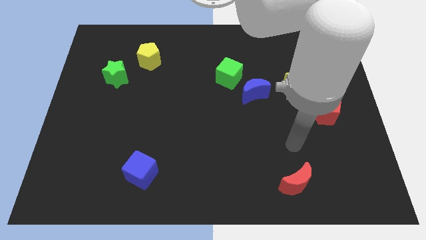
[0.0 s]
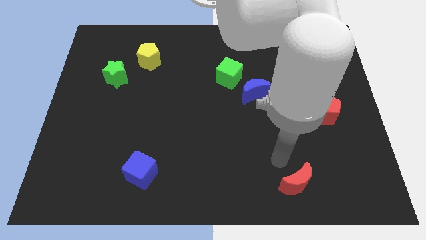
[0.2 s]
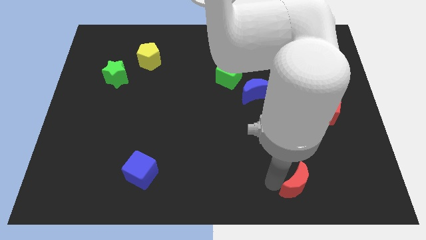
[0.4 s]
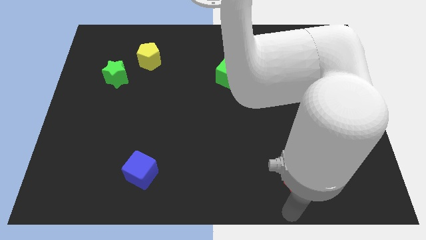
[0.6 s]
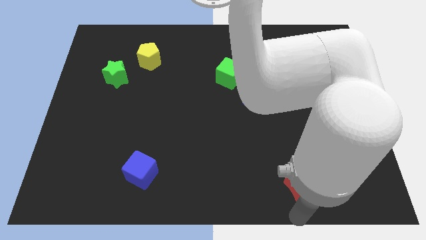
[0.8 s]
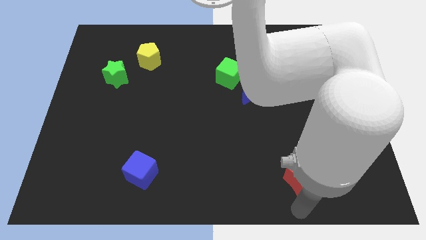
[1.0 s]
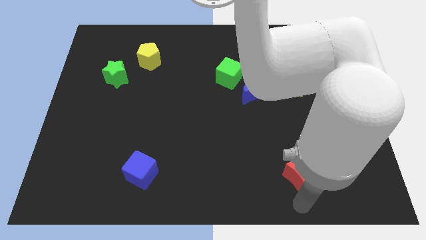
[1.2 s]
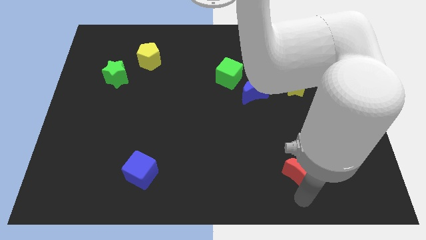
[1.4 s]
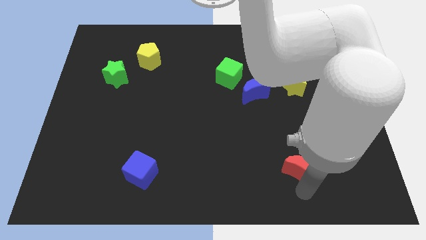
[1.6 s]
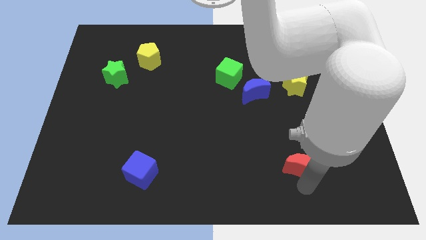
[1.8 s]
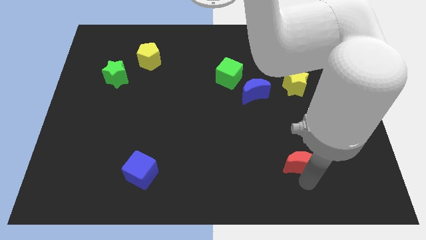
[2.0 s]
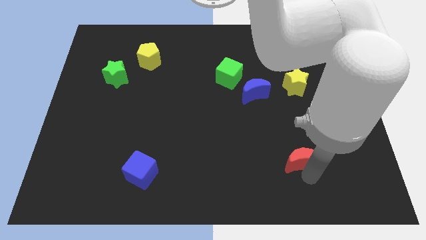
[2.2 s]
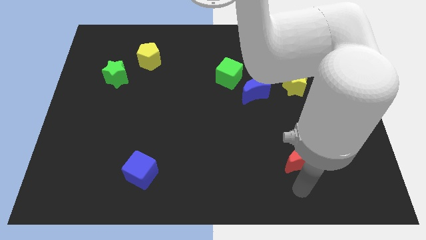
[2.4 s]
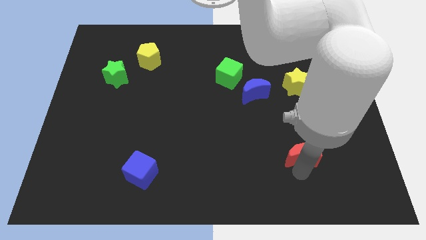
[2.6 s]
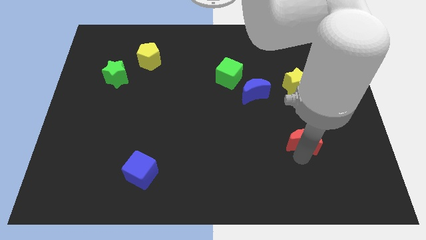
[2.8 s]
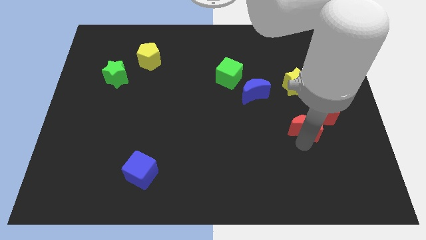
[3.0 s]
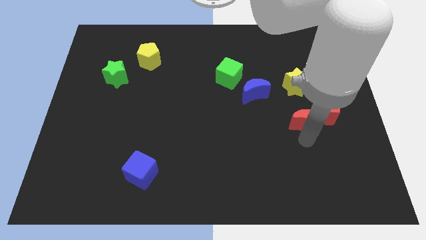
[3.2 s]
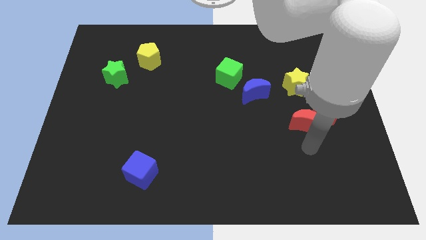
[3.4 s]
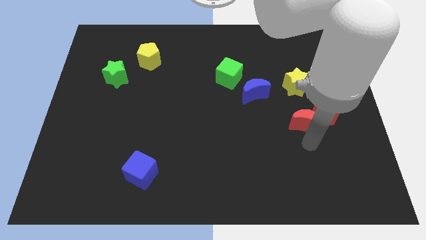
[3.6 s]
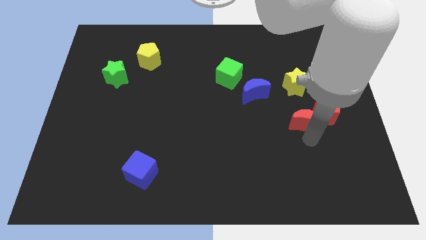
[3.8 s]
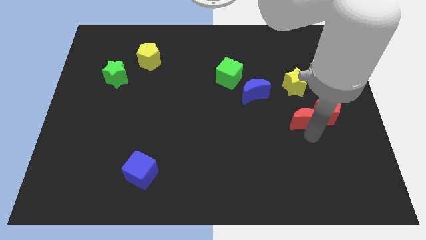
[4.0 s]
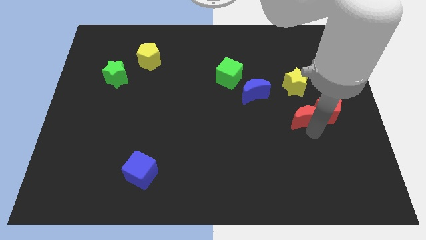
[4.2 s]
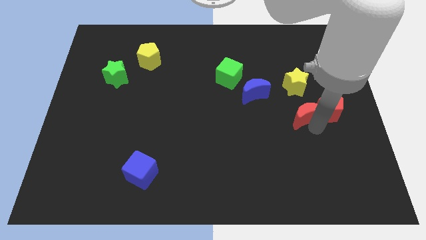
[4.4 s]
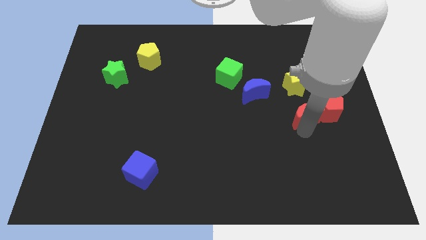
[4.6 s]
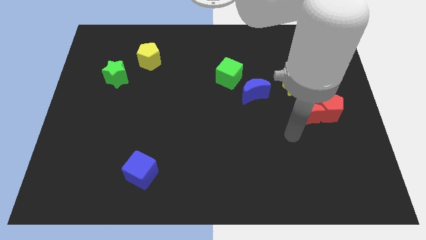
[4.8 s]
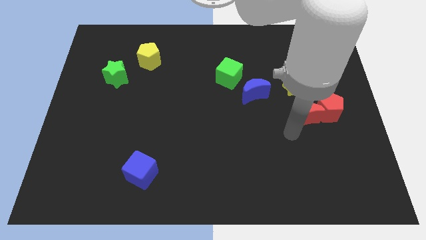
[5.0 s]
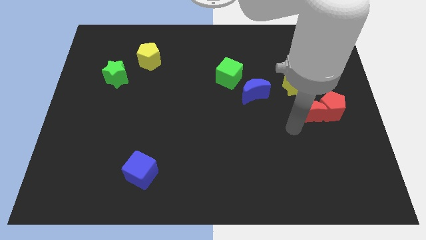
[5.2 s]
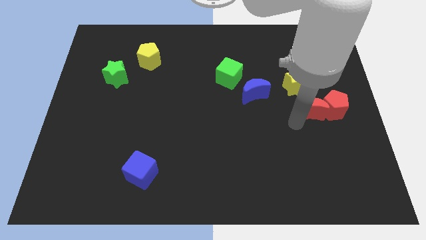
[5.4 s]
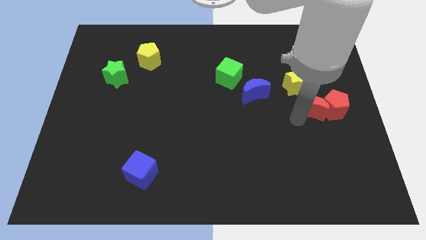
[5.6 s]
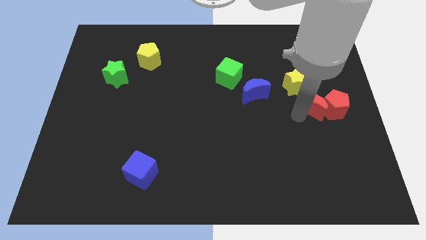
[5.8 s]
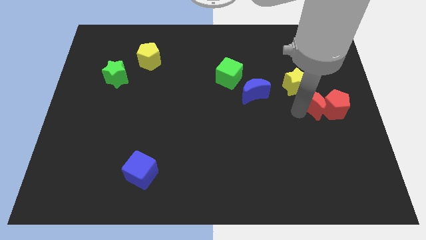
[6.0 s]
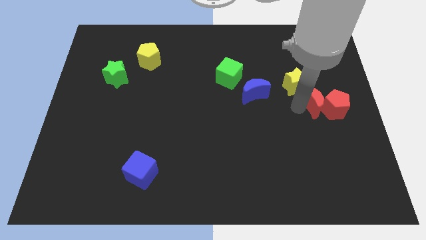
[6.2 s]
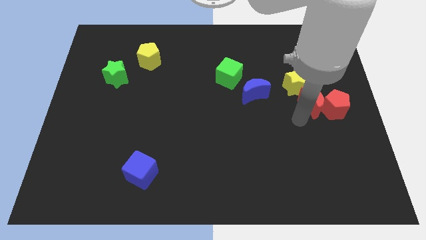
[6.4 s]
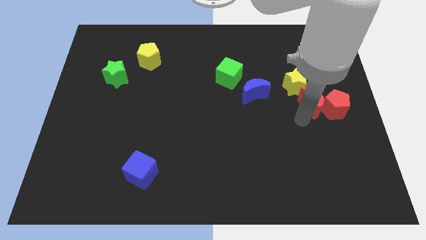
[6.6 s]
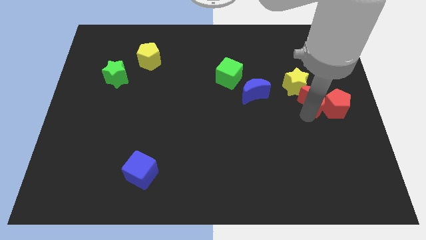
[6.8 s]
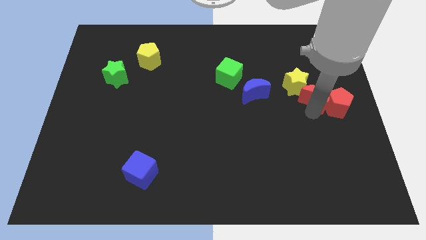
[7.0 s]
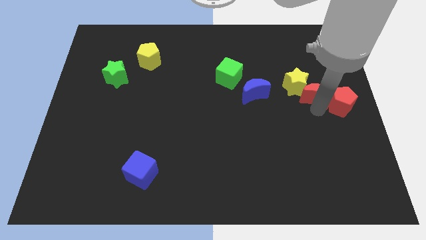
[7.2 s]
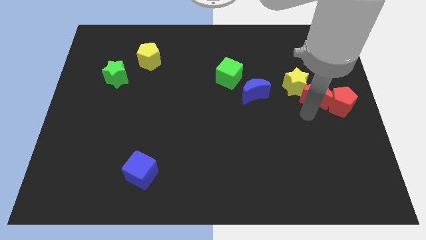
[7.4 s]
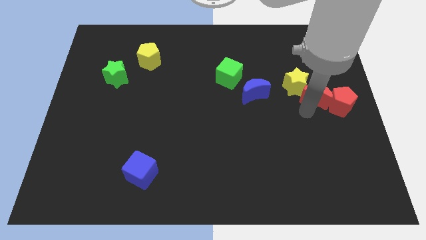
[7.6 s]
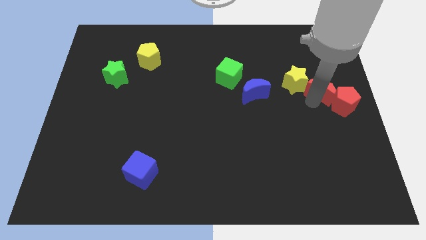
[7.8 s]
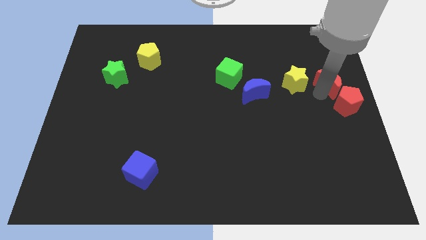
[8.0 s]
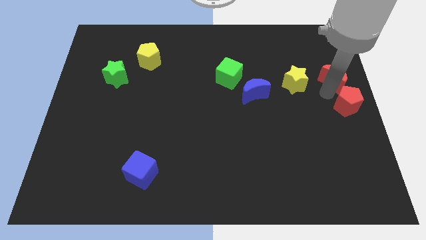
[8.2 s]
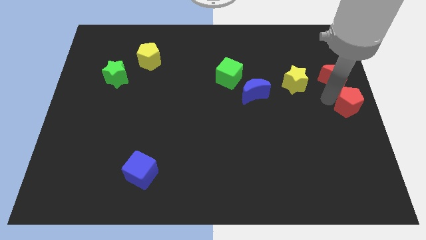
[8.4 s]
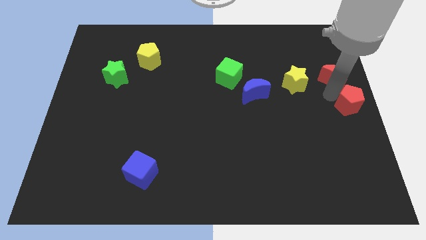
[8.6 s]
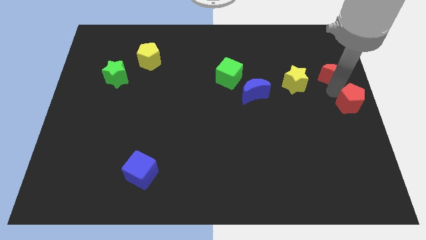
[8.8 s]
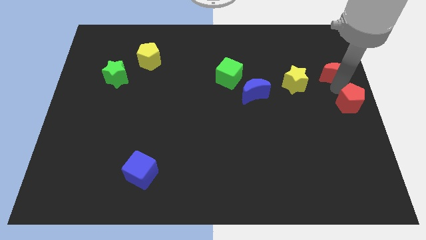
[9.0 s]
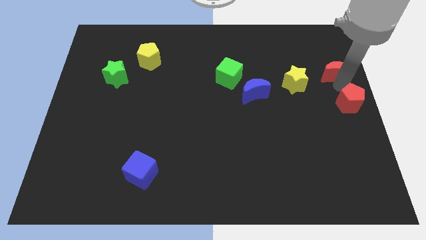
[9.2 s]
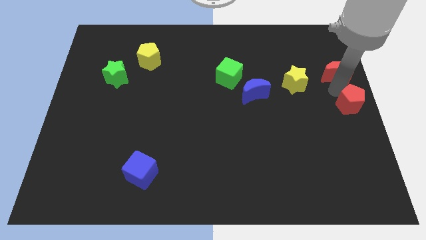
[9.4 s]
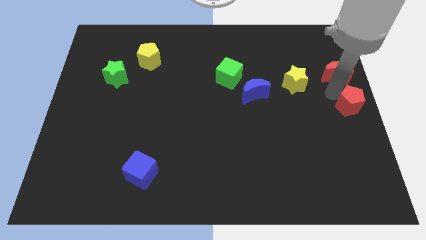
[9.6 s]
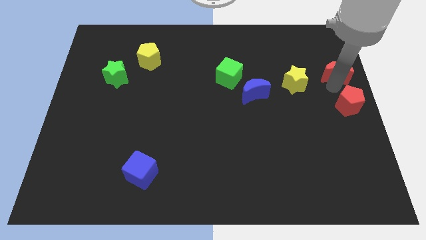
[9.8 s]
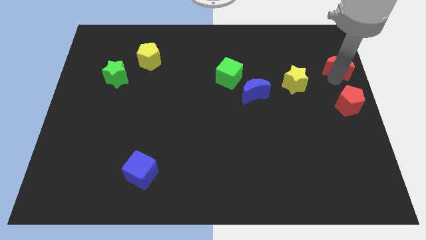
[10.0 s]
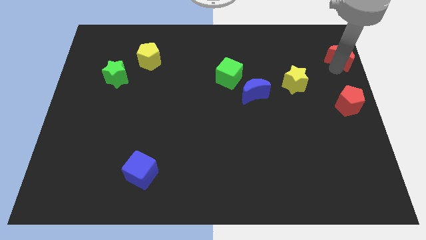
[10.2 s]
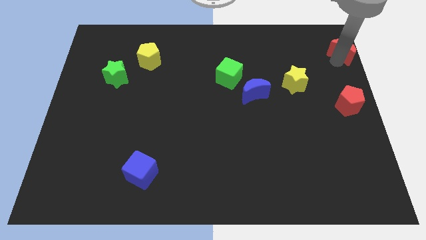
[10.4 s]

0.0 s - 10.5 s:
put the red moon to the top right of the board
